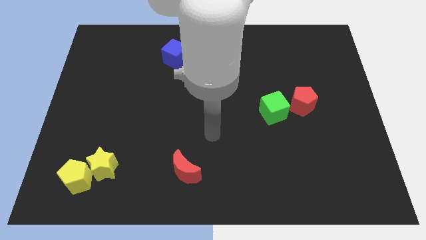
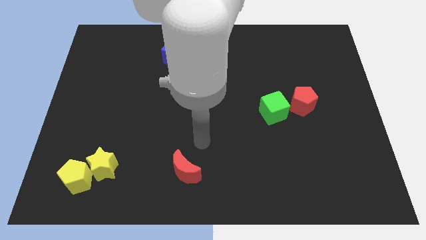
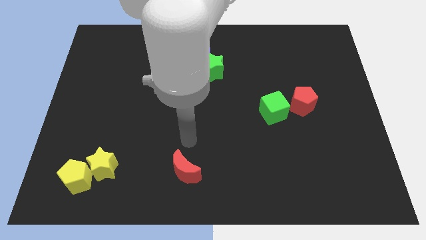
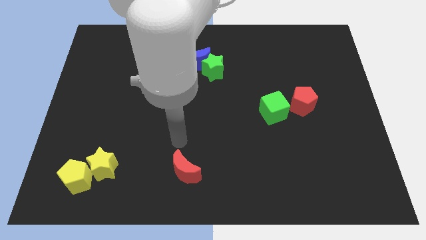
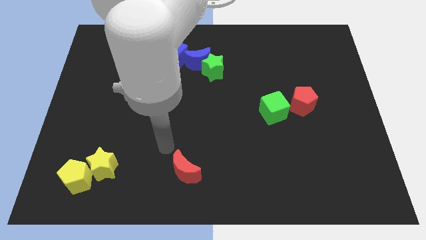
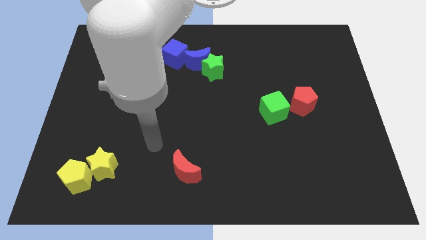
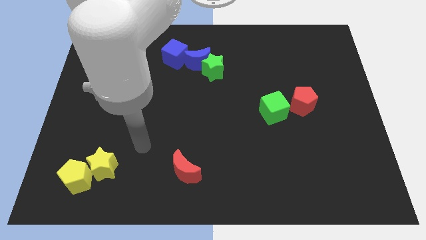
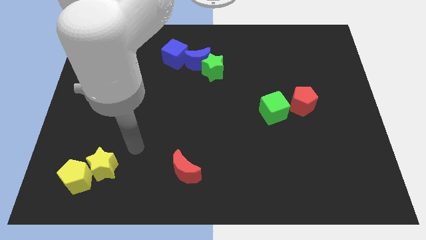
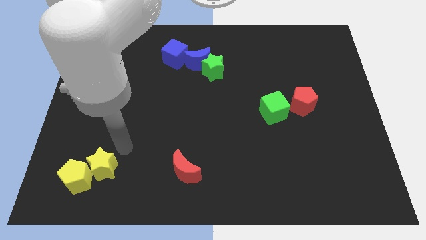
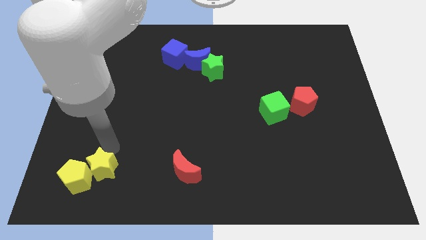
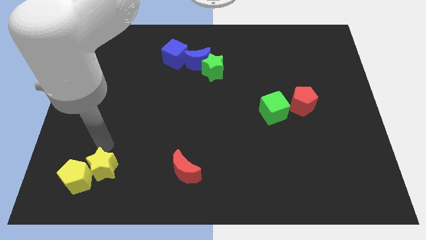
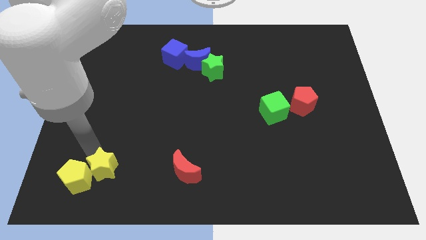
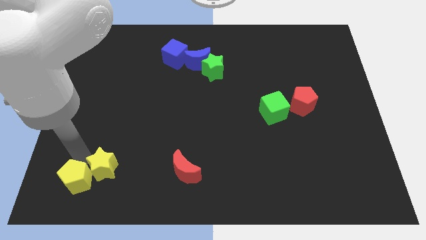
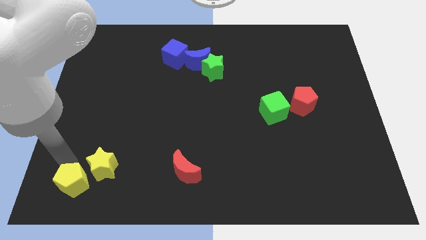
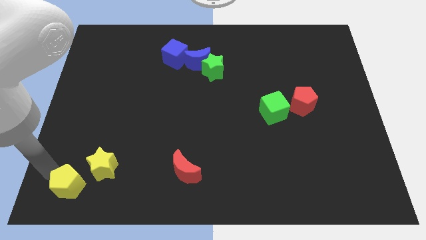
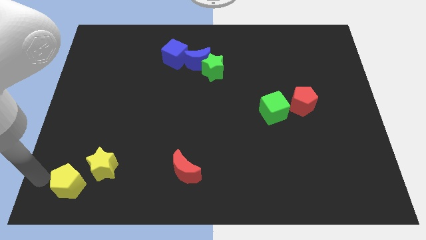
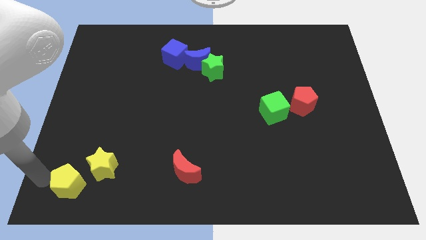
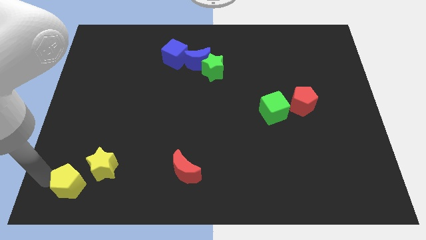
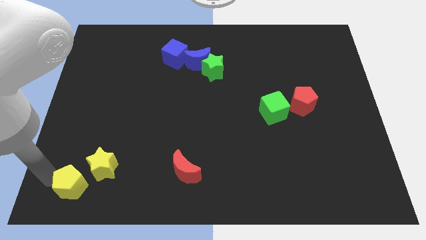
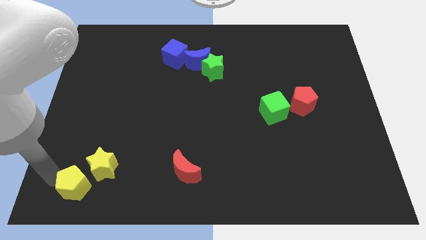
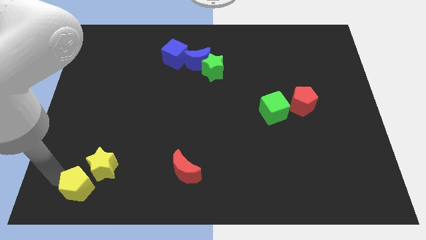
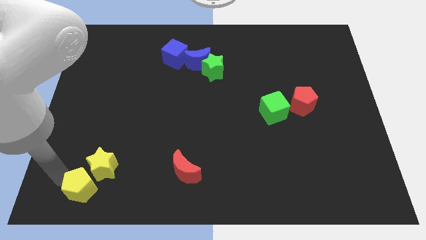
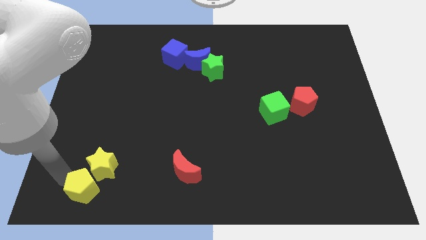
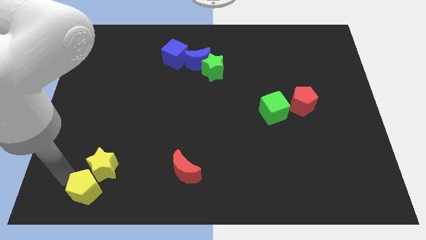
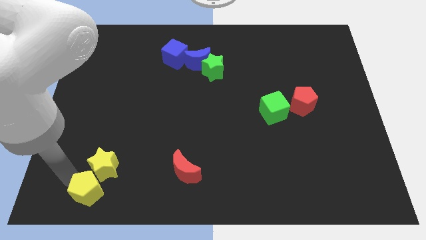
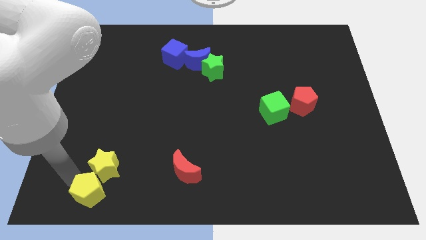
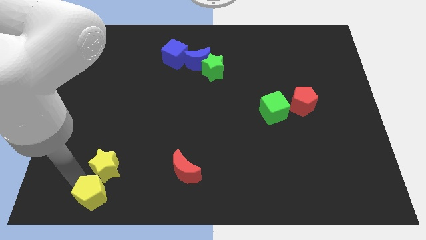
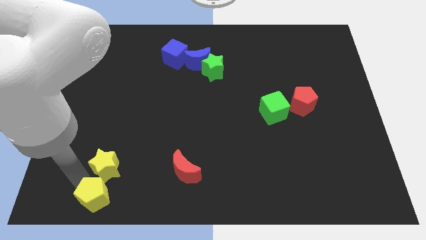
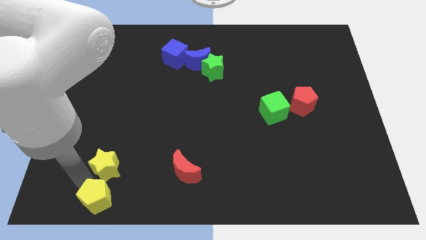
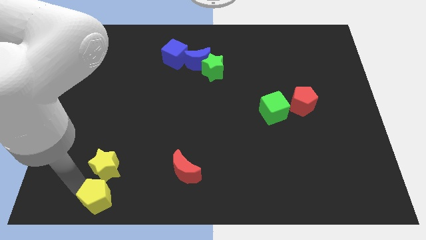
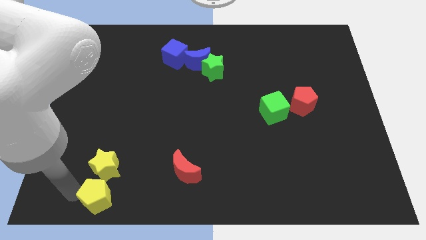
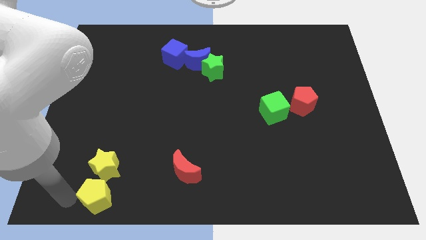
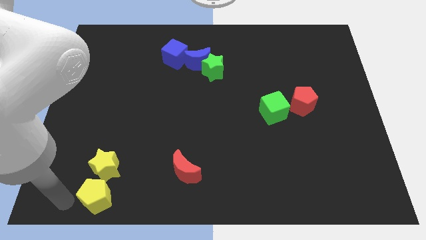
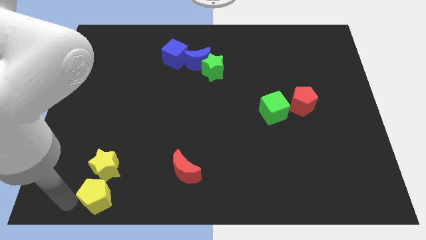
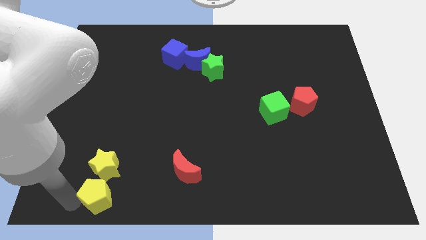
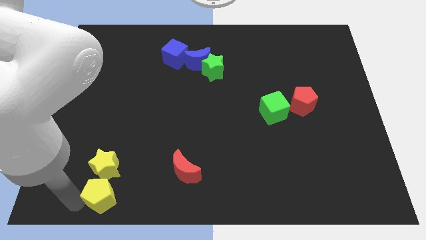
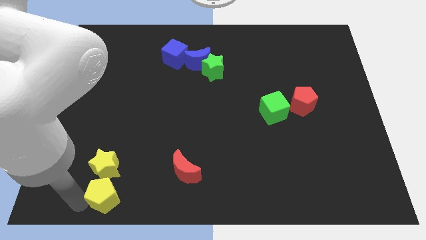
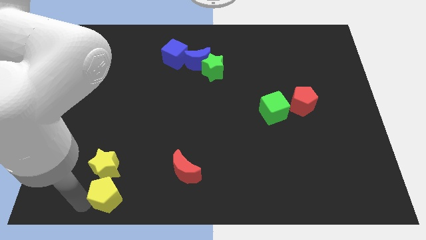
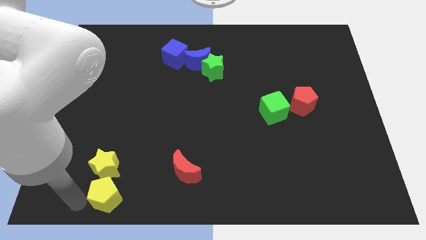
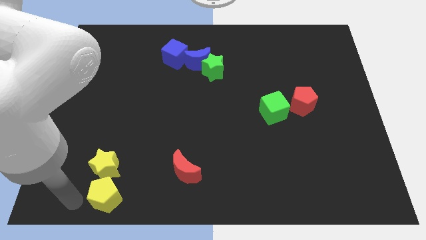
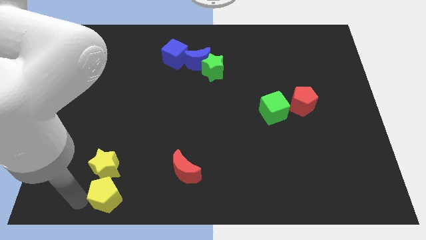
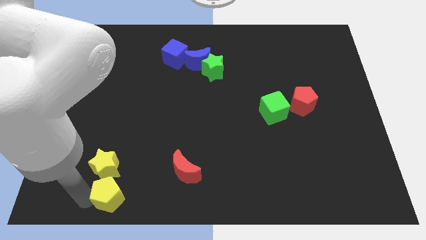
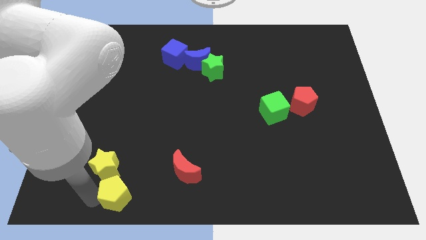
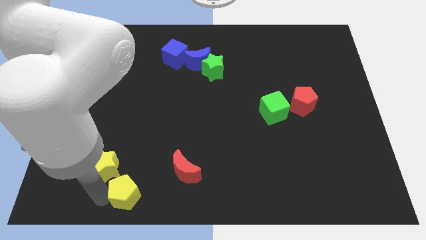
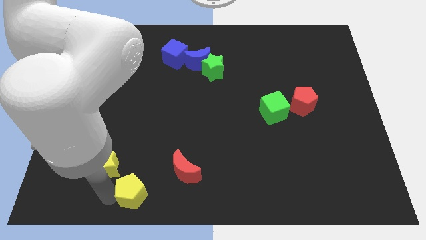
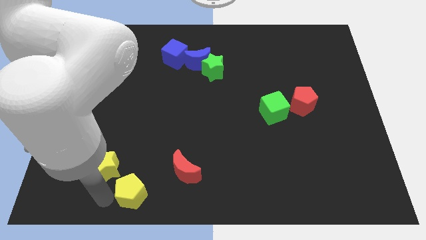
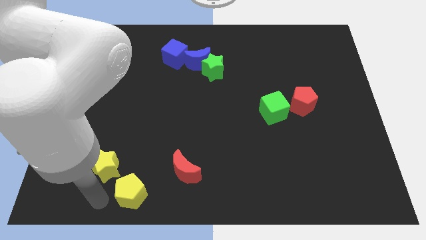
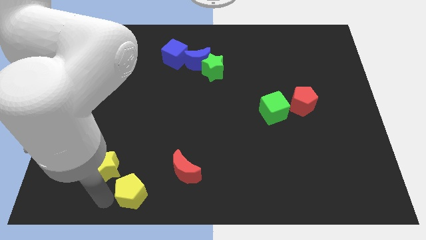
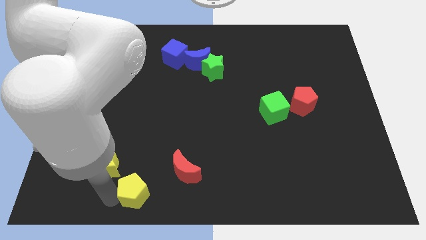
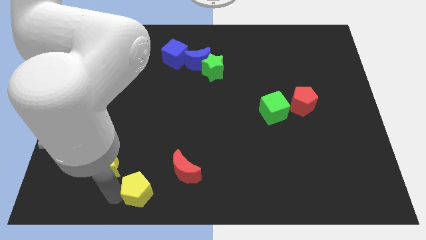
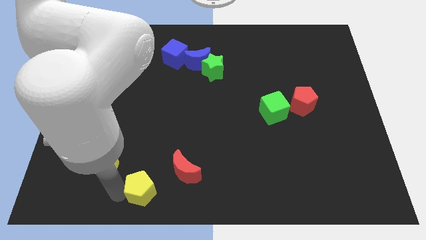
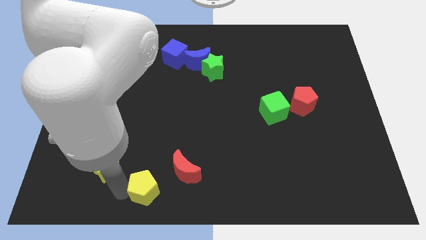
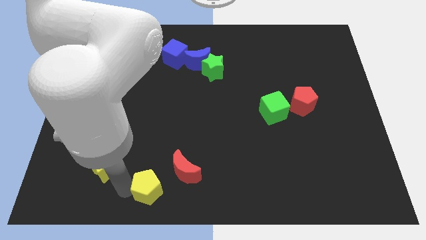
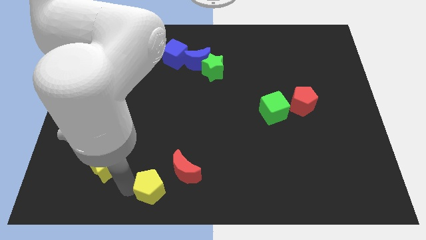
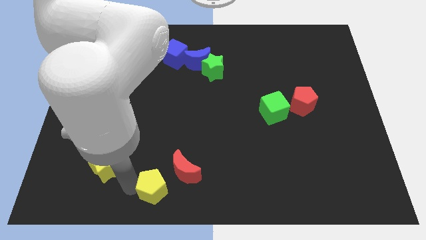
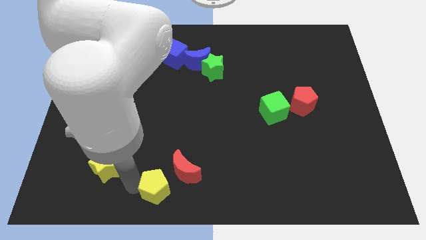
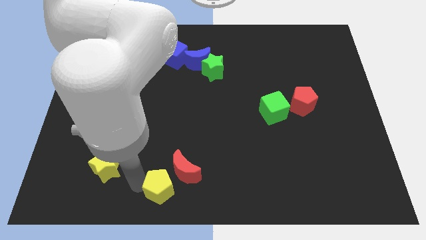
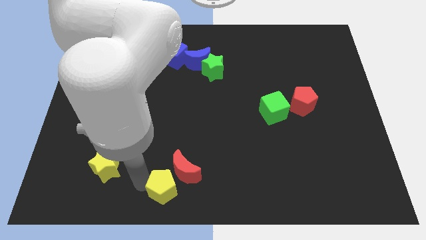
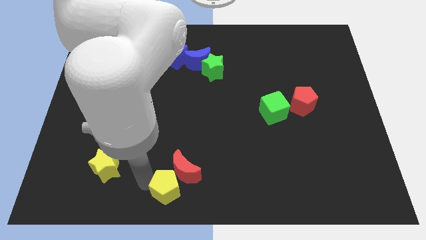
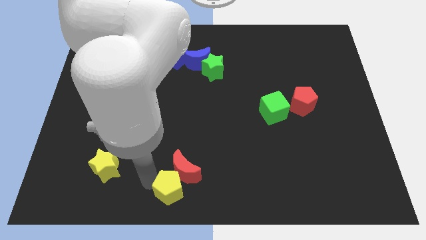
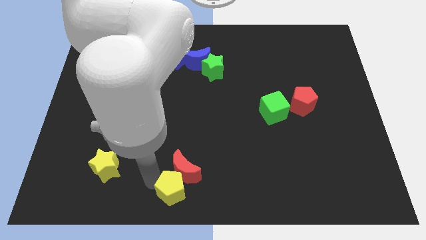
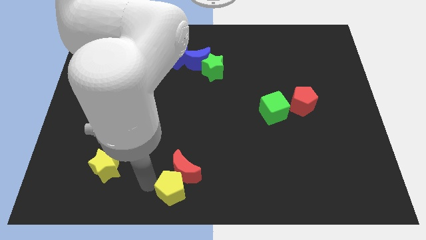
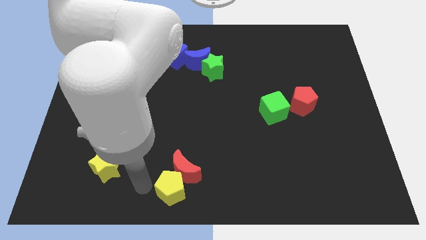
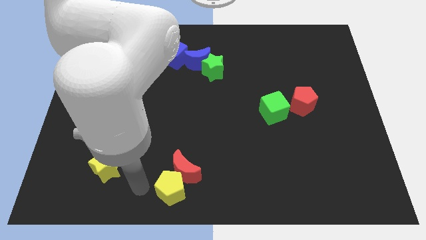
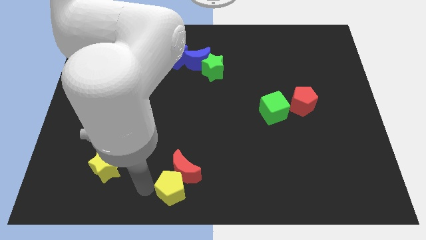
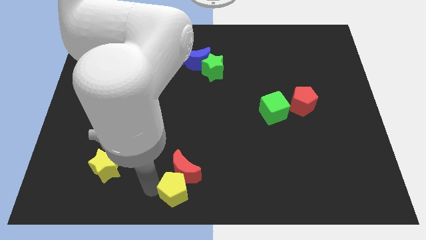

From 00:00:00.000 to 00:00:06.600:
slide the yellow pentagon to the right

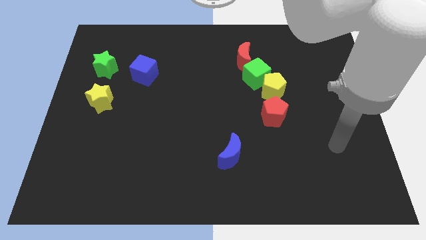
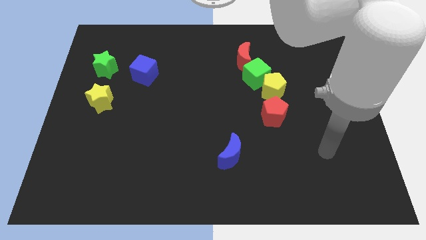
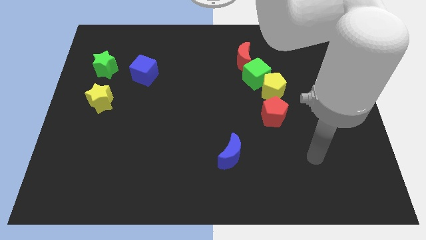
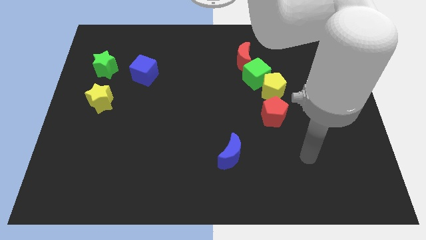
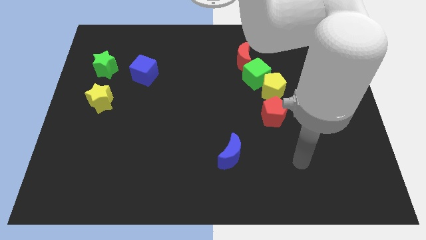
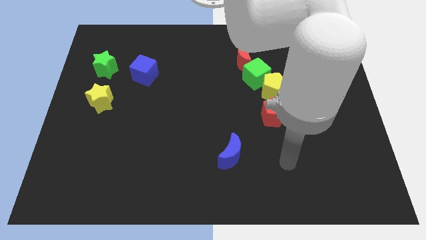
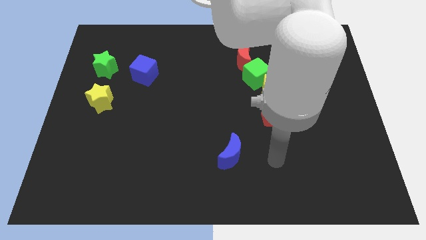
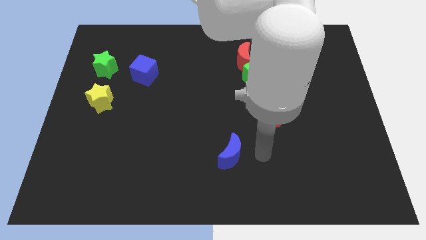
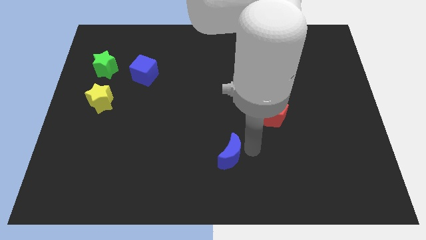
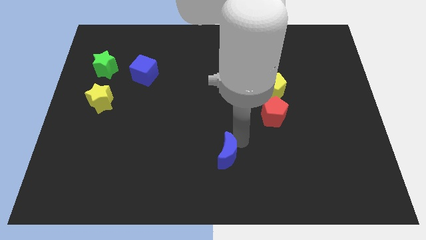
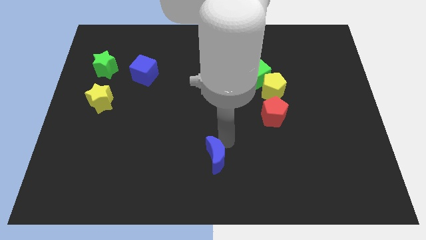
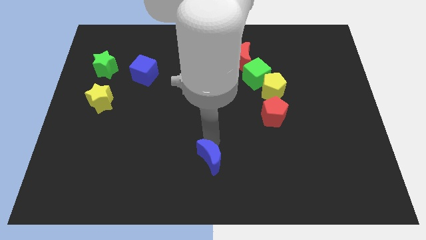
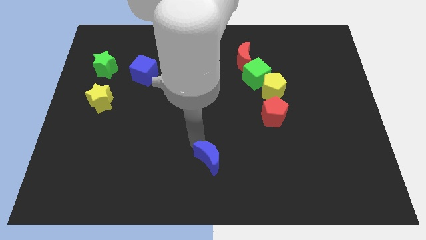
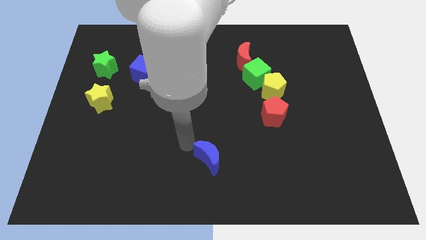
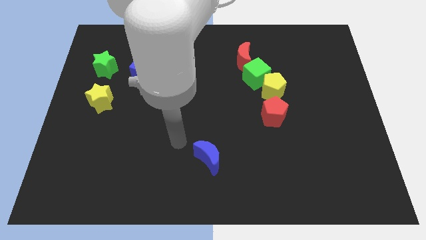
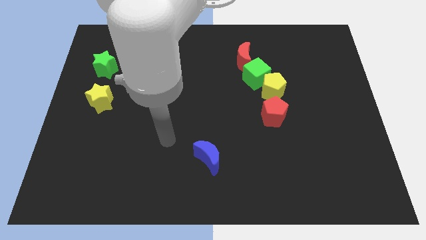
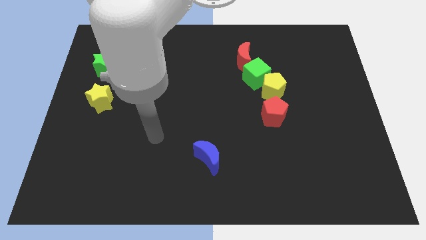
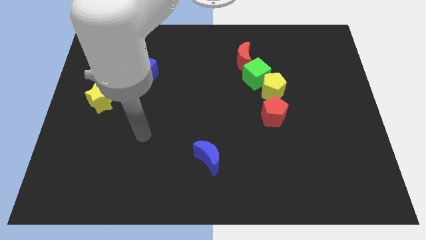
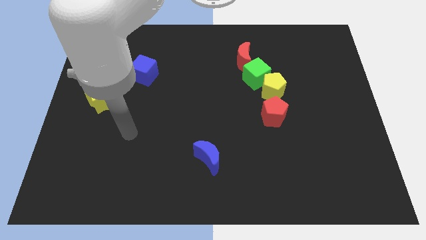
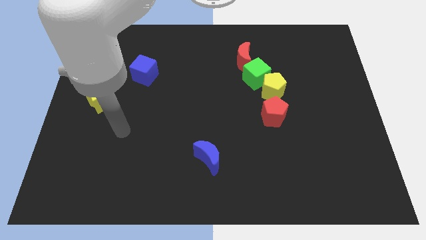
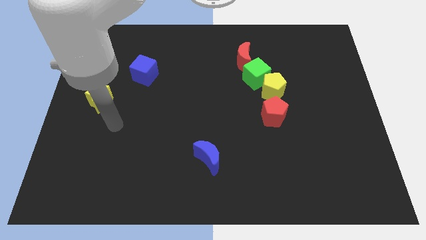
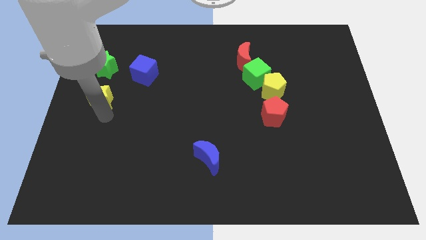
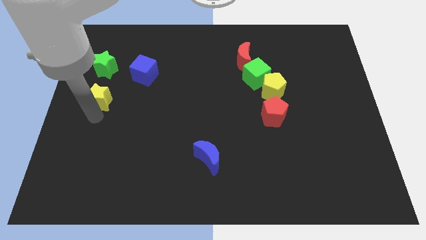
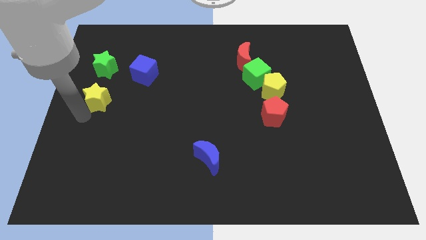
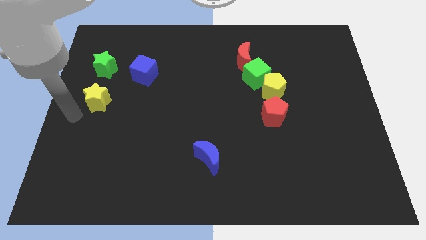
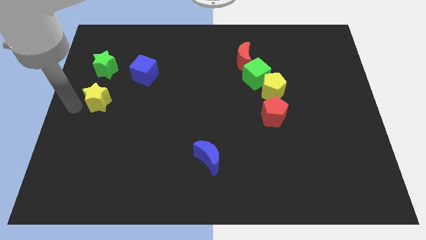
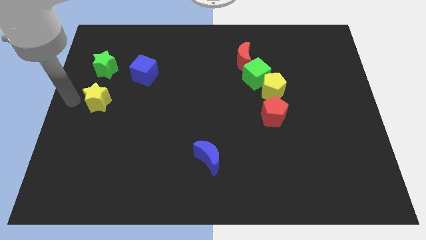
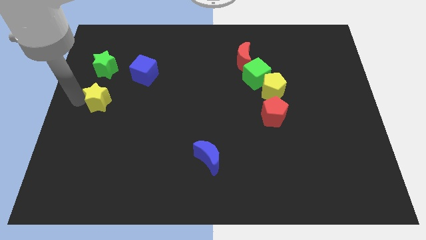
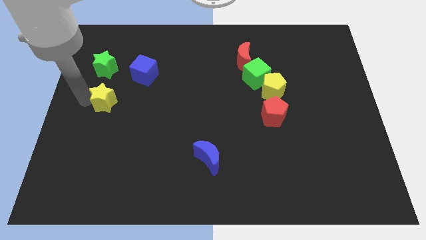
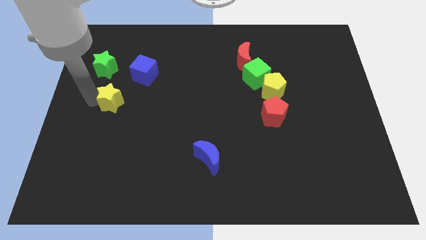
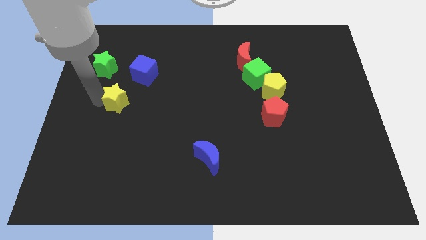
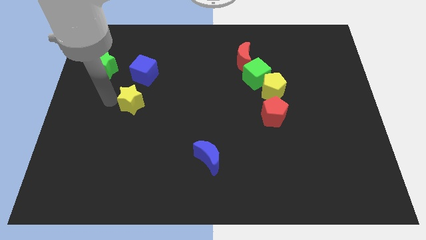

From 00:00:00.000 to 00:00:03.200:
slightly slide the yellow star right
